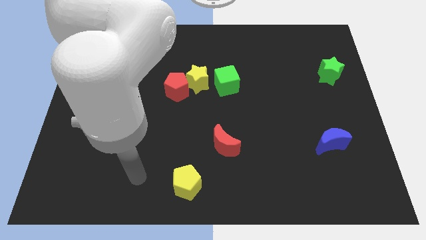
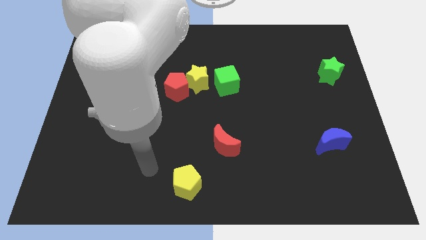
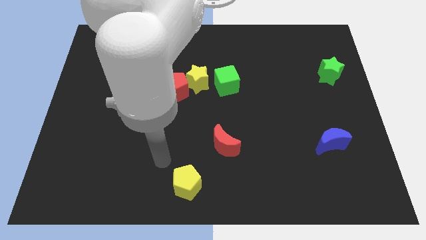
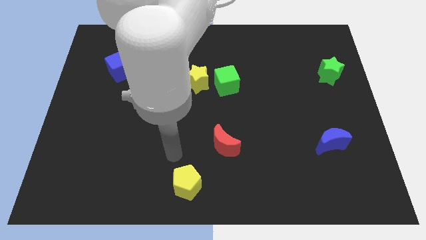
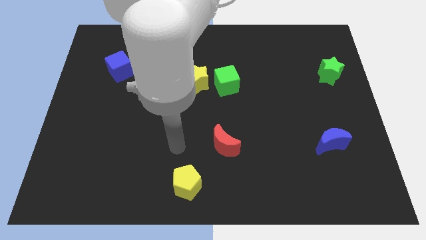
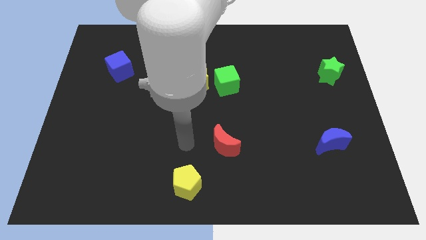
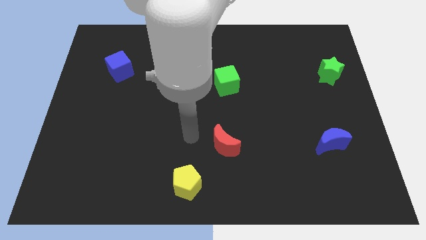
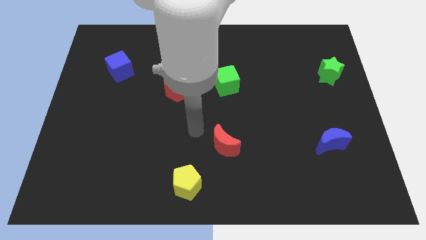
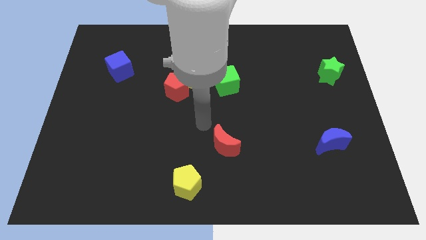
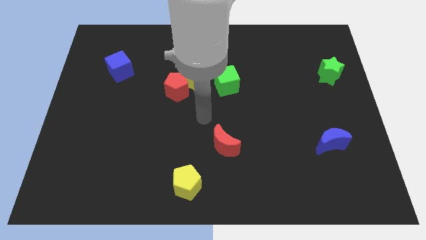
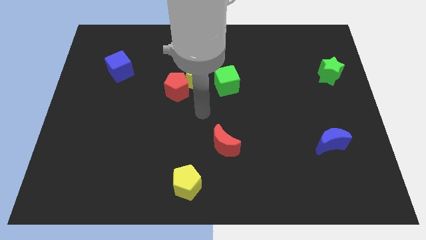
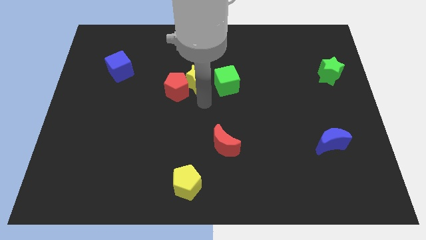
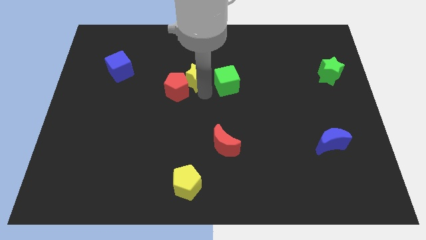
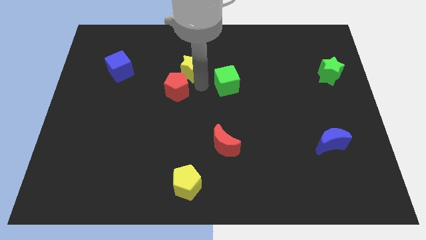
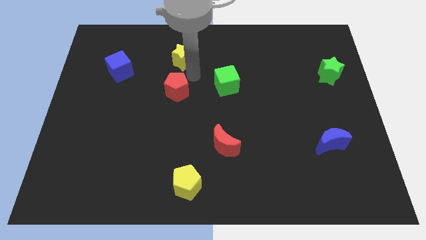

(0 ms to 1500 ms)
move the red pentagon away from the yellow star

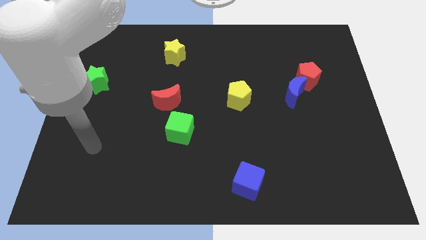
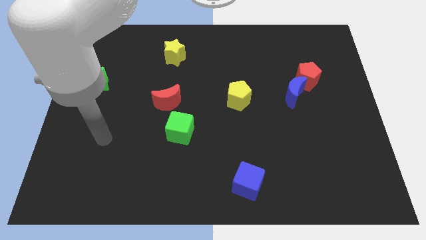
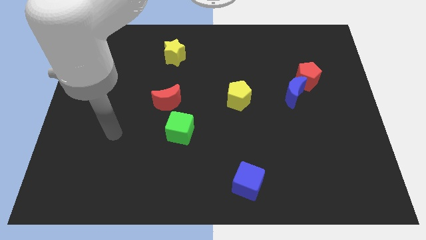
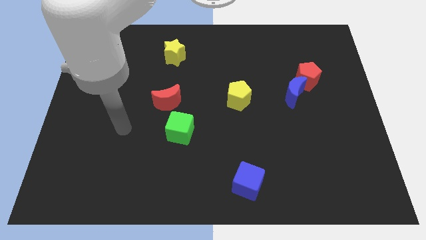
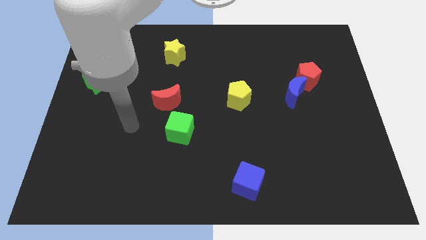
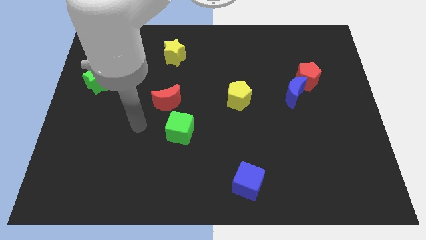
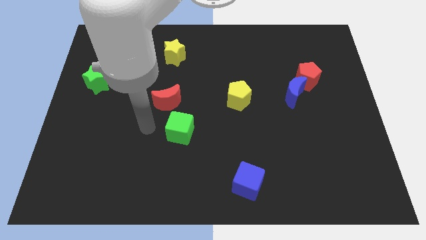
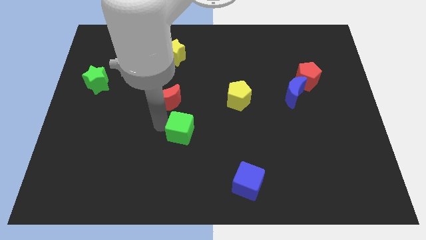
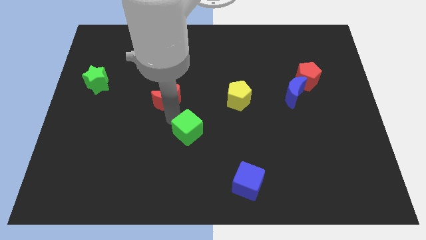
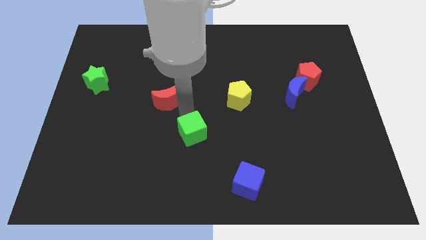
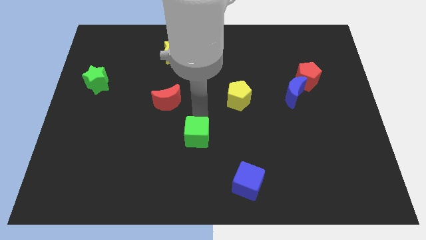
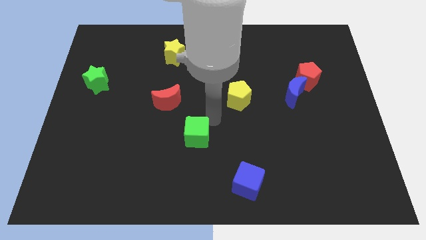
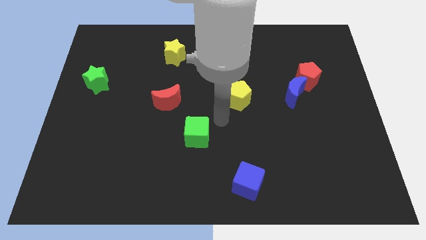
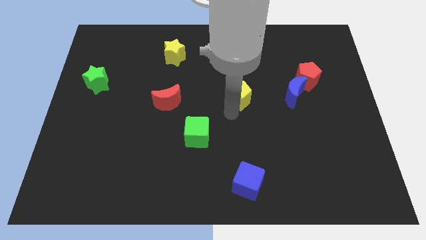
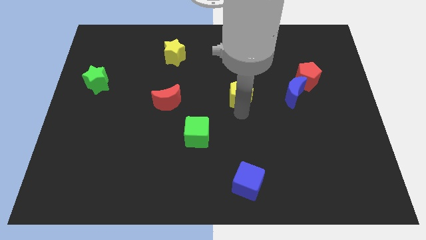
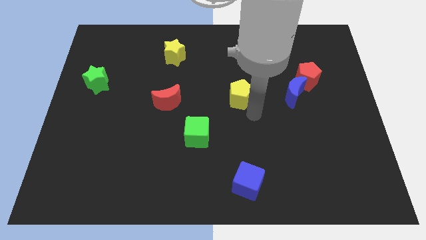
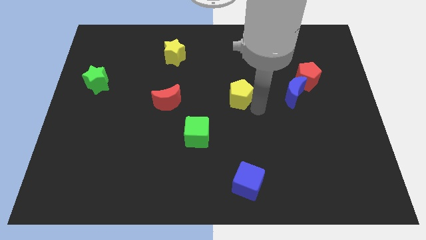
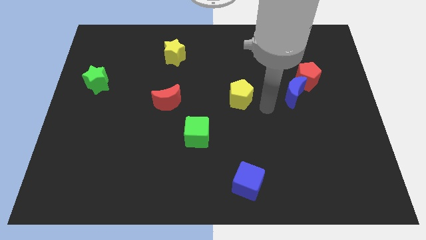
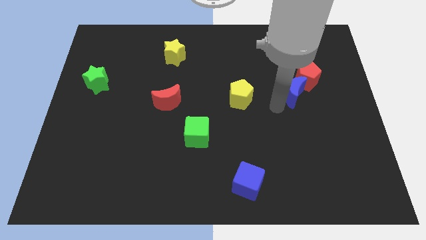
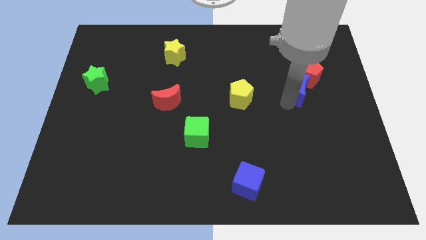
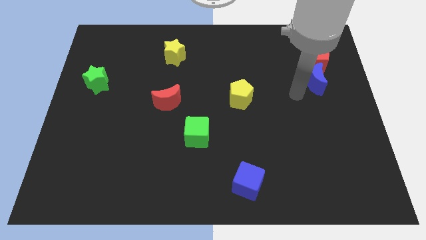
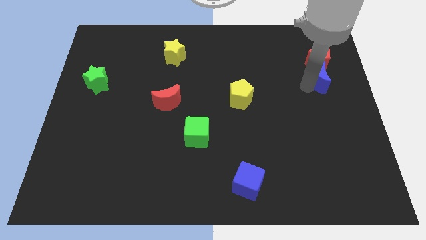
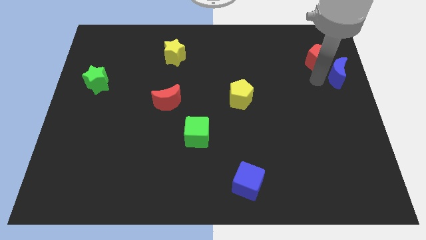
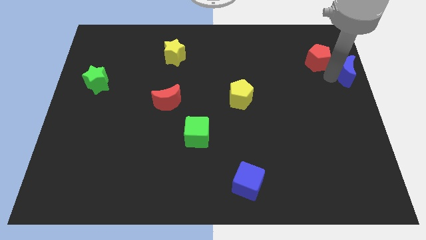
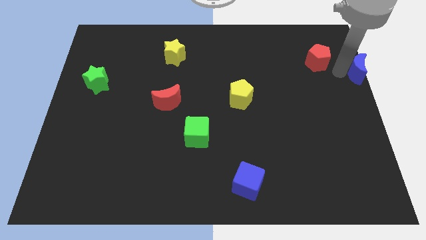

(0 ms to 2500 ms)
pull the red pentagon apart from the blue moon

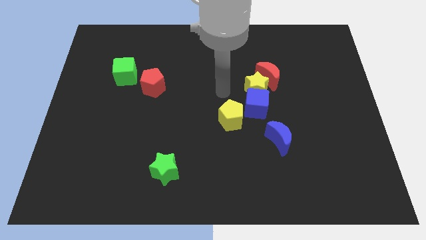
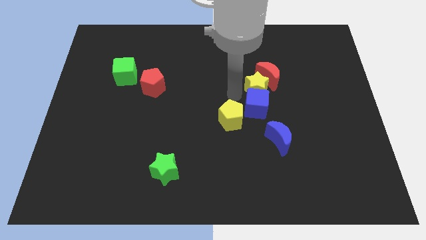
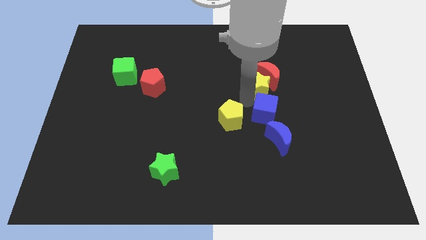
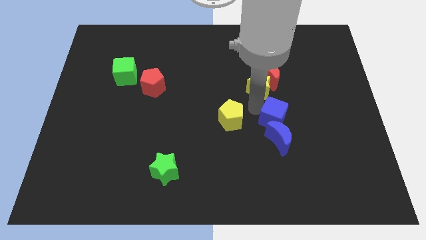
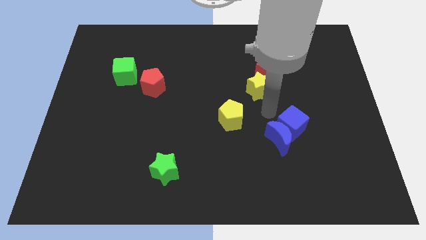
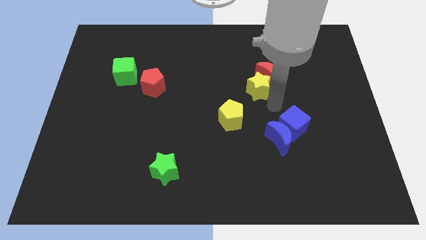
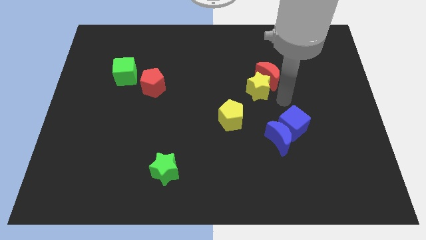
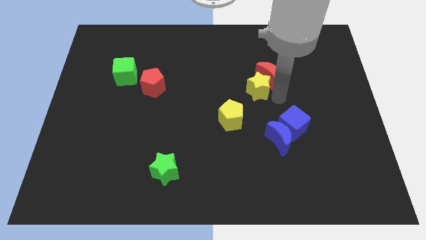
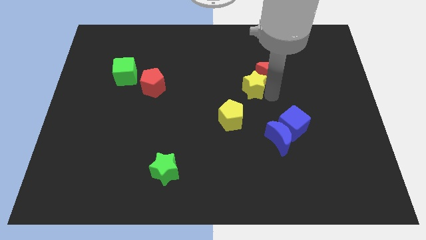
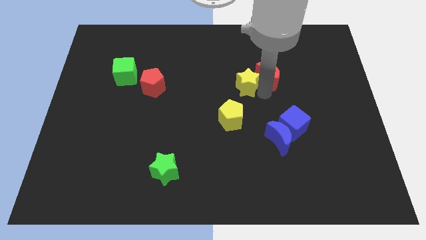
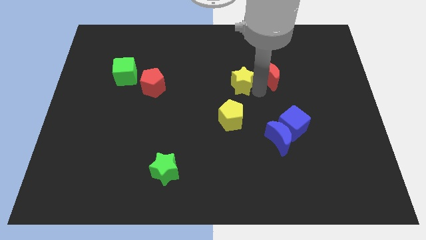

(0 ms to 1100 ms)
pull the yellow star apart from the blue cube and red moon

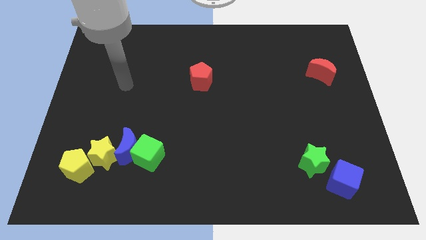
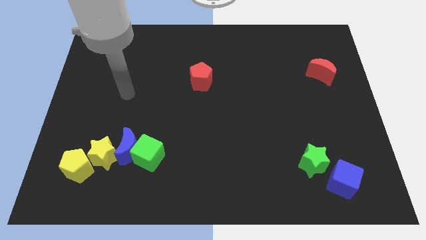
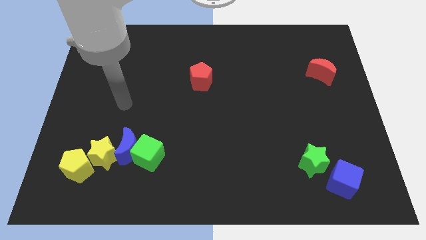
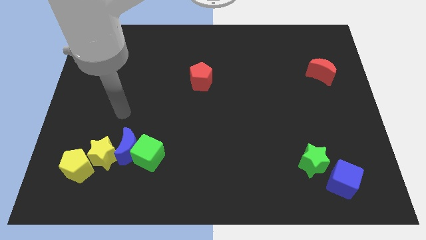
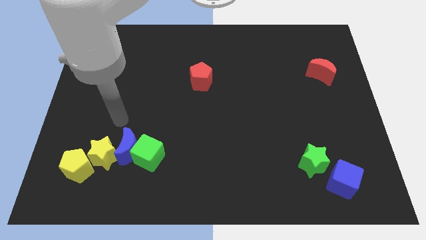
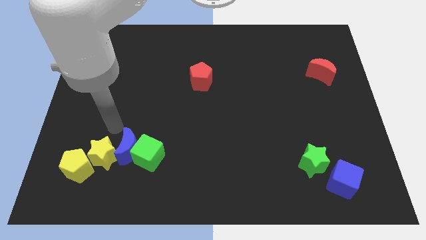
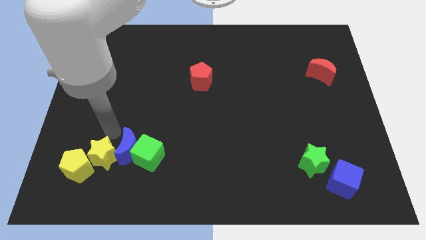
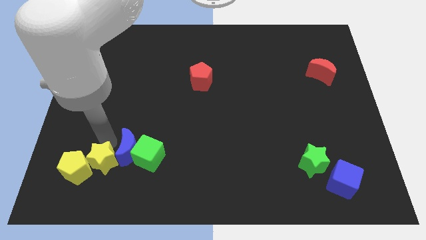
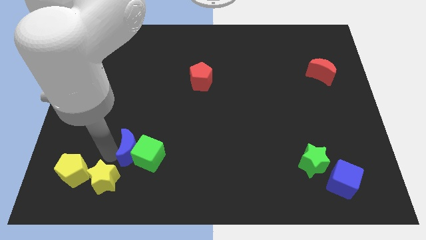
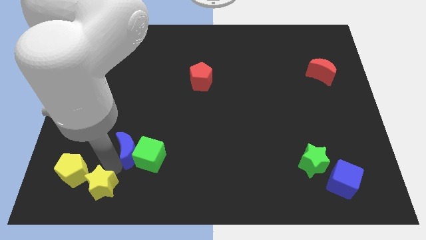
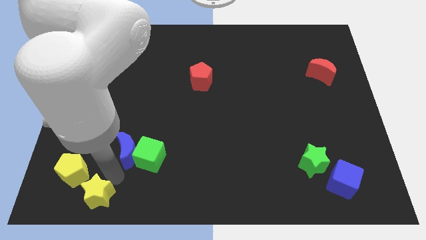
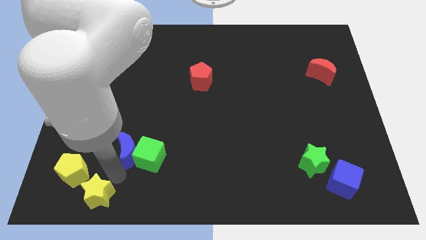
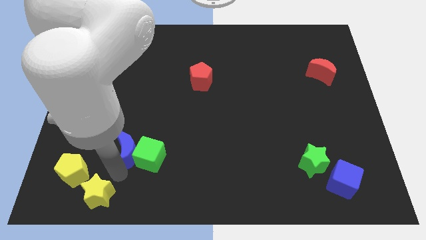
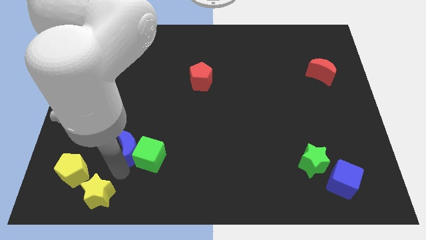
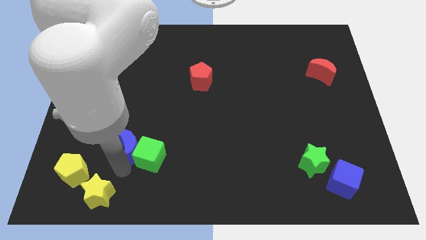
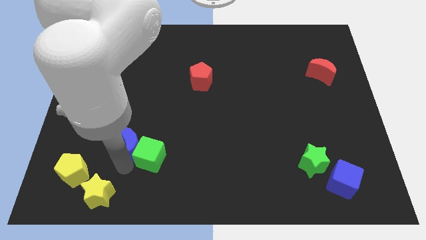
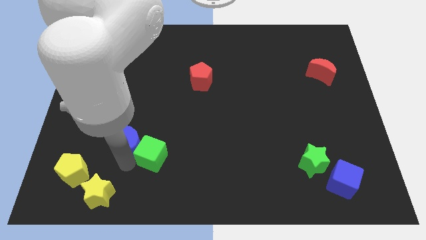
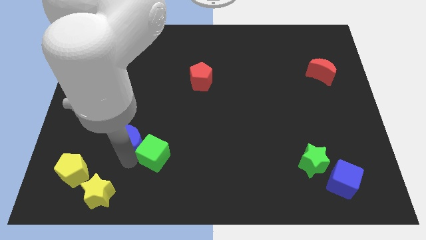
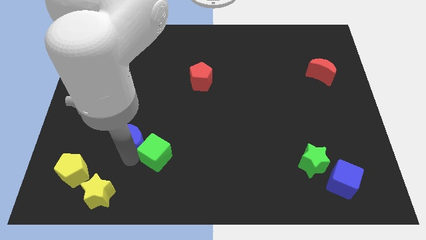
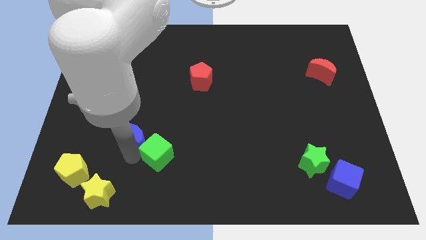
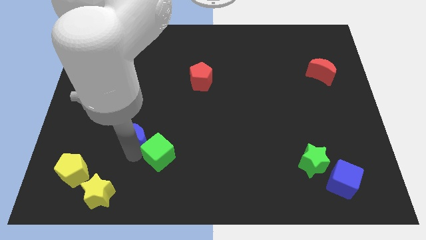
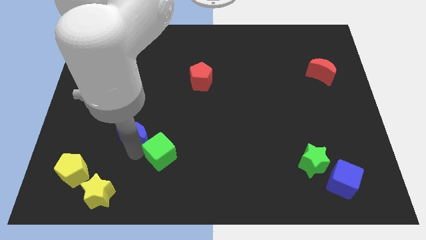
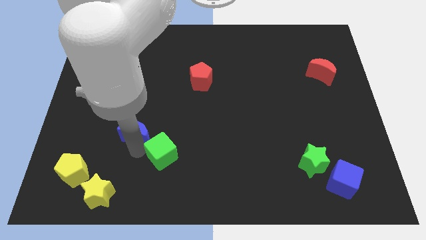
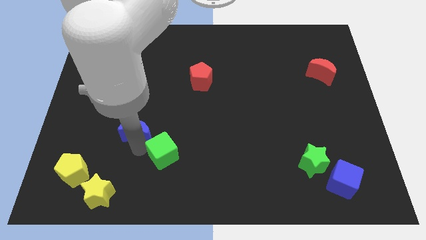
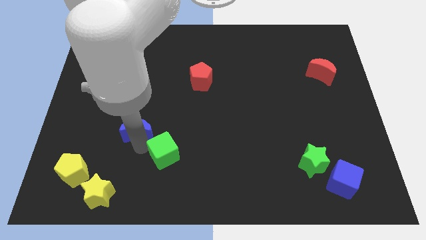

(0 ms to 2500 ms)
pull the blue moon apart from the green cube and yellow star

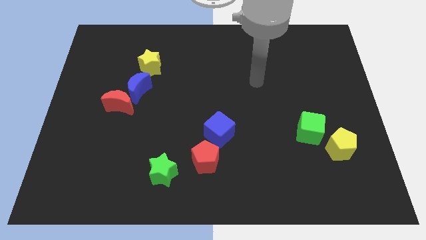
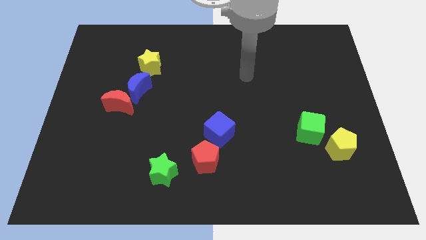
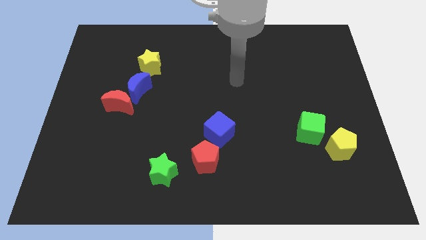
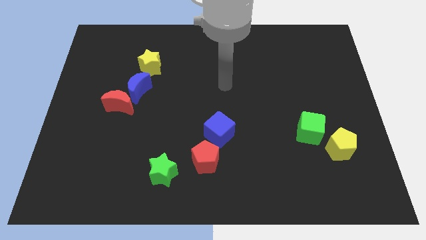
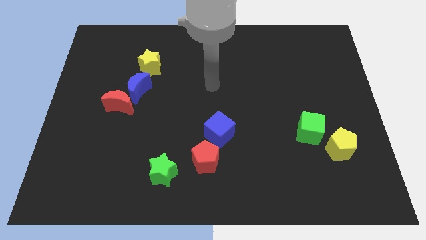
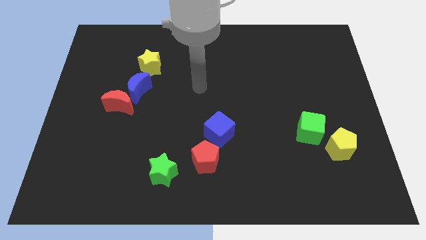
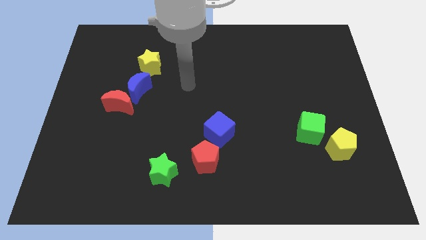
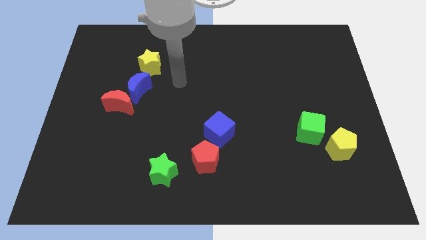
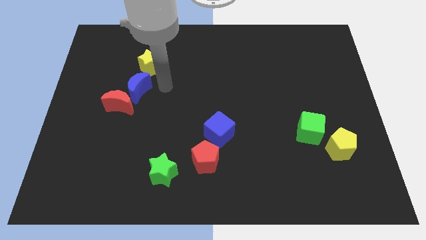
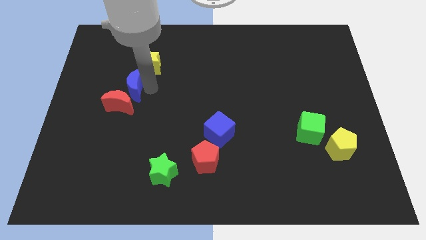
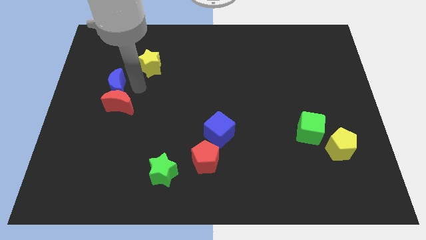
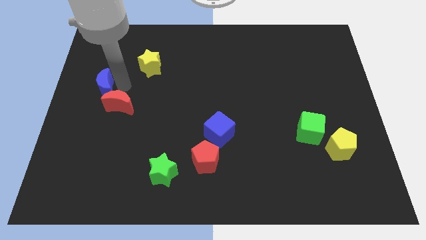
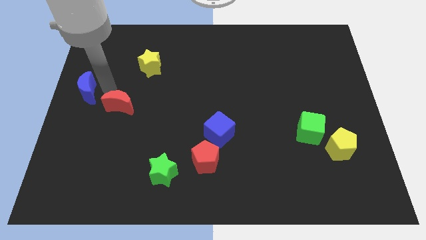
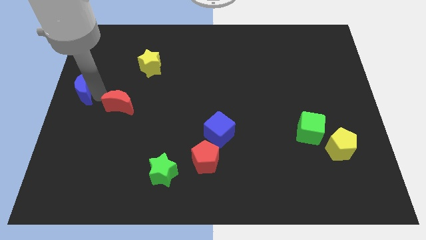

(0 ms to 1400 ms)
pull the red moon apart from the blue moon

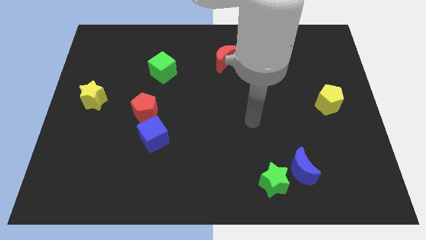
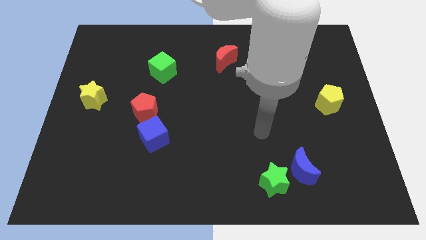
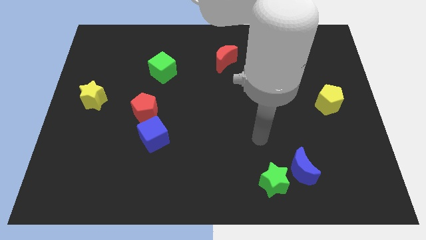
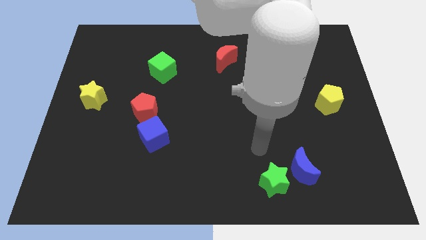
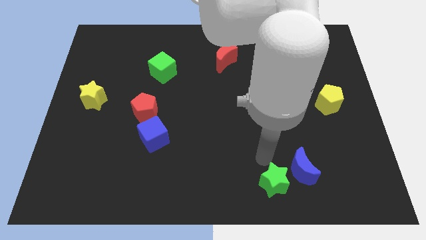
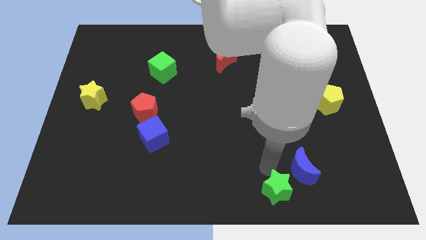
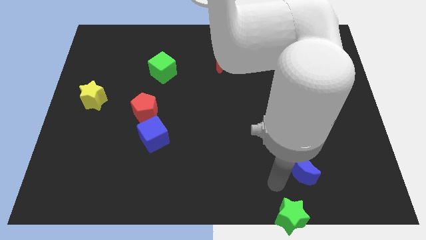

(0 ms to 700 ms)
separate the blue moon from the green star
